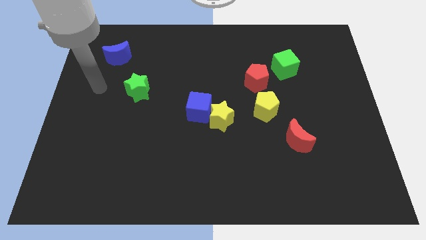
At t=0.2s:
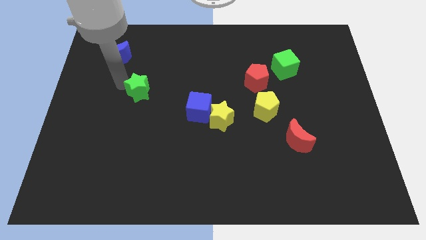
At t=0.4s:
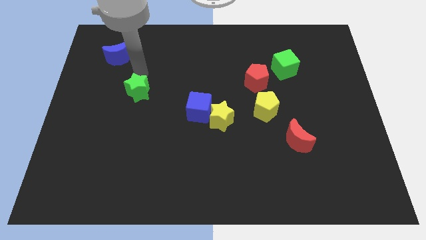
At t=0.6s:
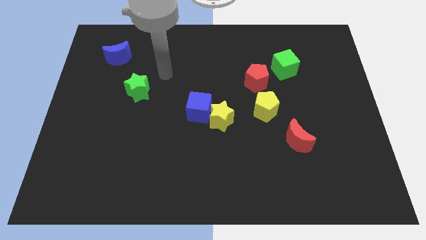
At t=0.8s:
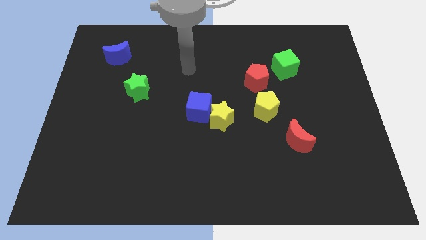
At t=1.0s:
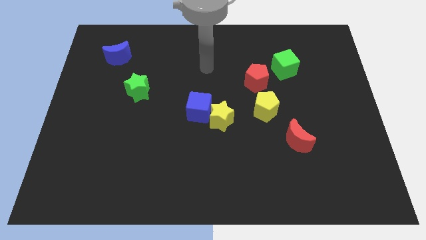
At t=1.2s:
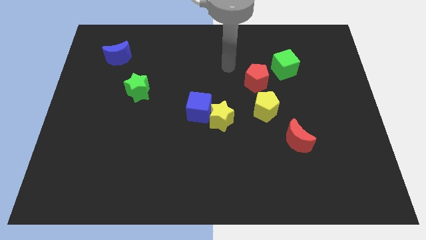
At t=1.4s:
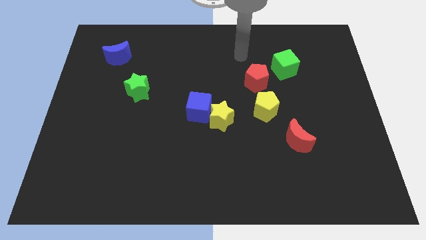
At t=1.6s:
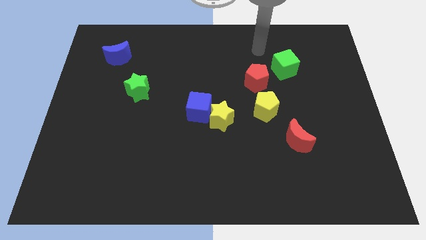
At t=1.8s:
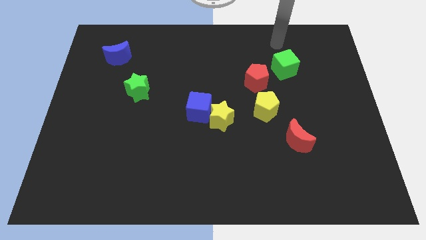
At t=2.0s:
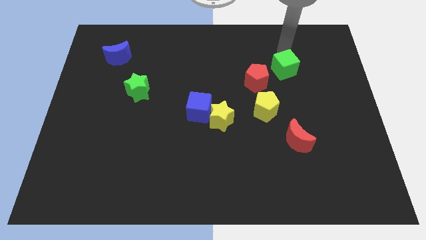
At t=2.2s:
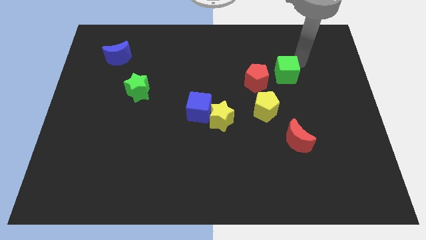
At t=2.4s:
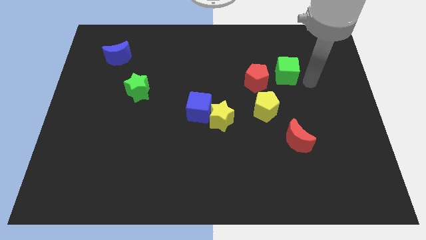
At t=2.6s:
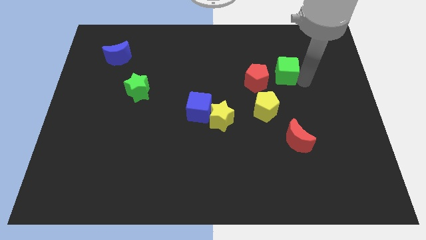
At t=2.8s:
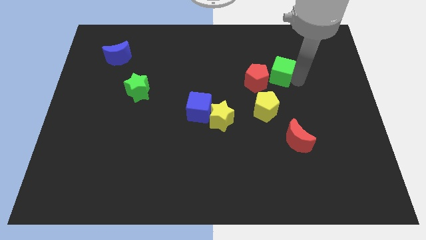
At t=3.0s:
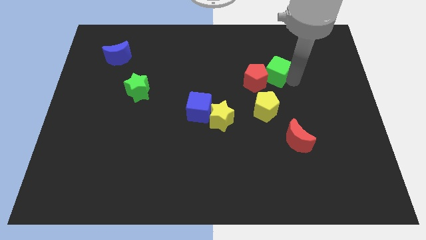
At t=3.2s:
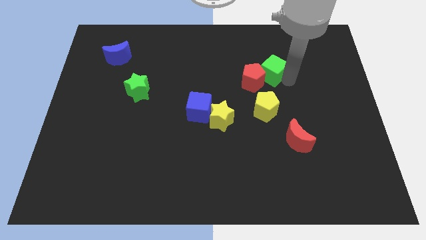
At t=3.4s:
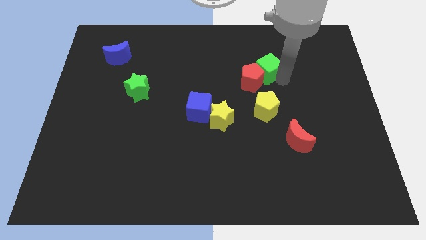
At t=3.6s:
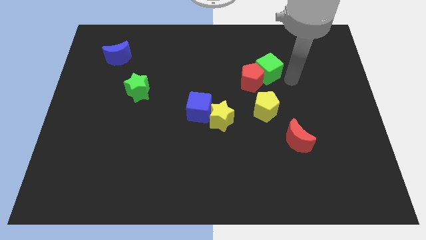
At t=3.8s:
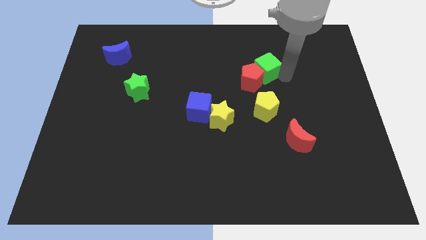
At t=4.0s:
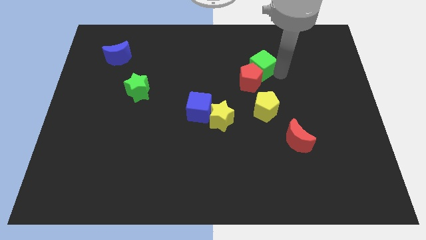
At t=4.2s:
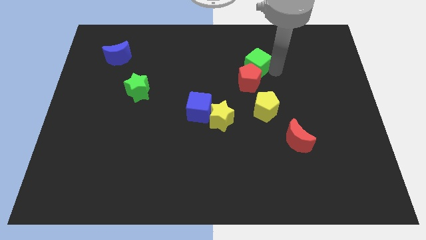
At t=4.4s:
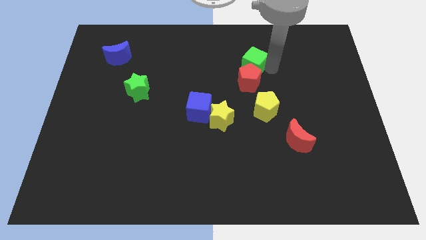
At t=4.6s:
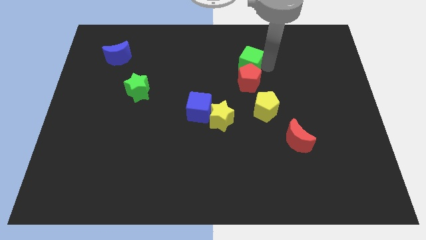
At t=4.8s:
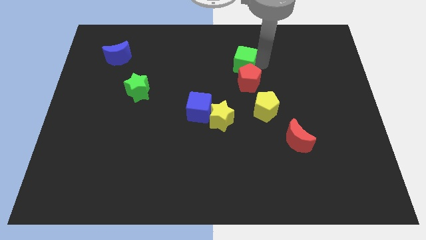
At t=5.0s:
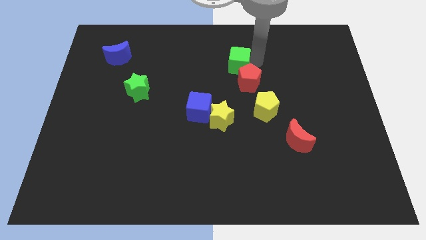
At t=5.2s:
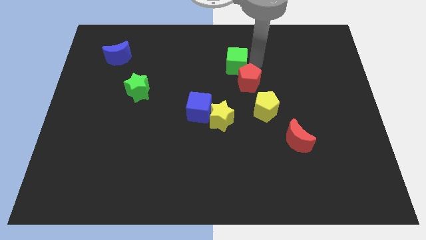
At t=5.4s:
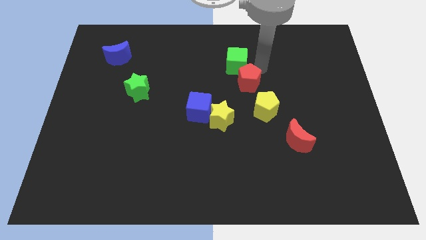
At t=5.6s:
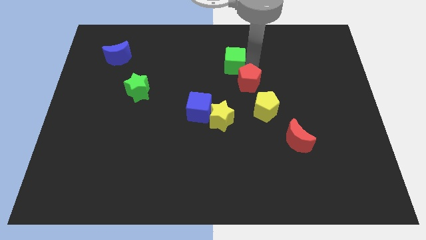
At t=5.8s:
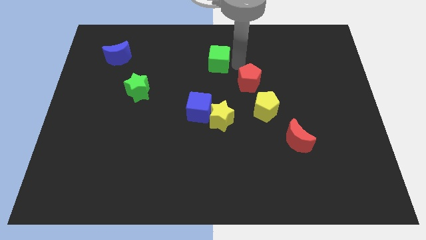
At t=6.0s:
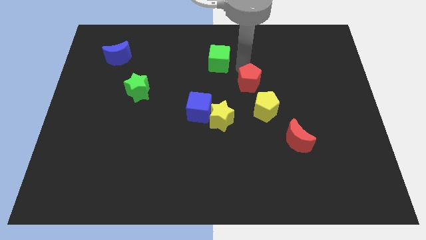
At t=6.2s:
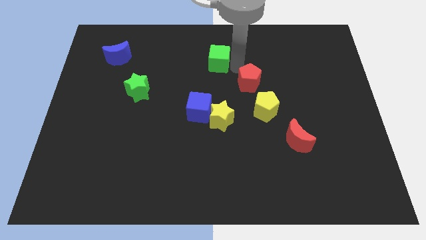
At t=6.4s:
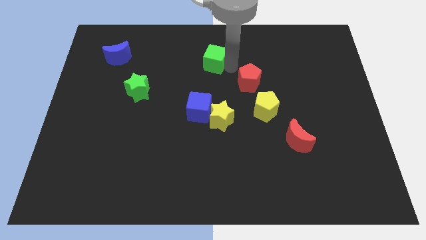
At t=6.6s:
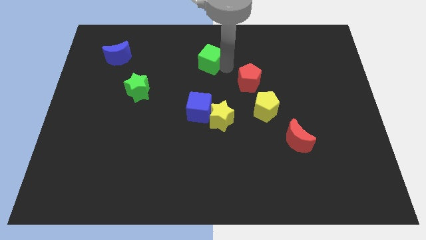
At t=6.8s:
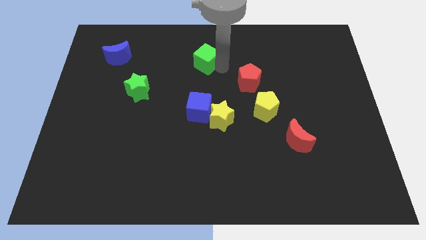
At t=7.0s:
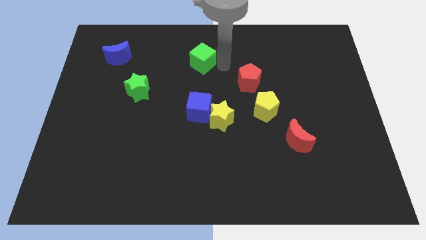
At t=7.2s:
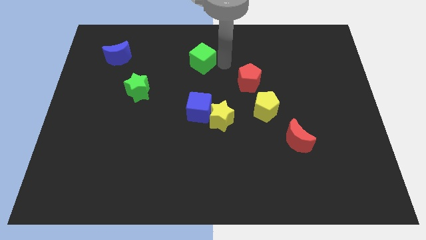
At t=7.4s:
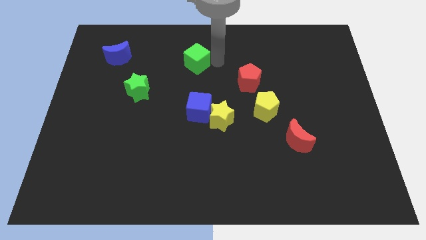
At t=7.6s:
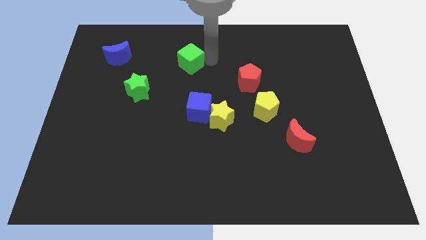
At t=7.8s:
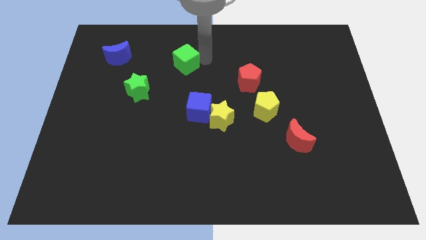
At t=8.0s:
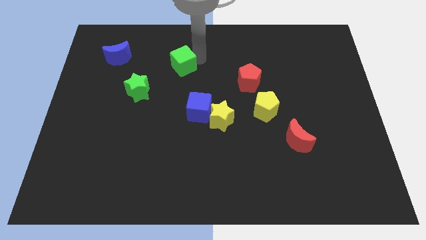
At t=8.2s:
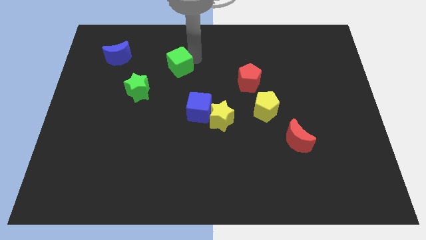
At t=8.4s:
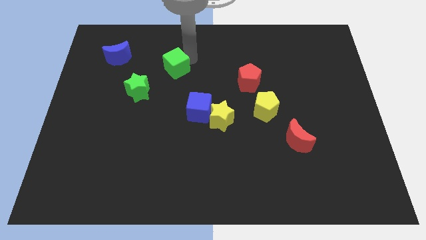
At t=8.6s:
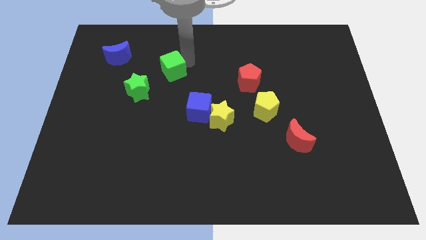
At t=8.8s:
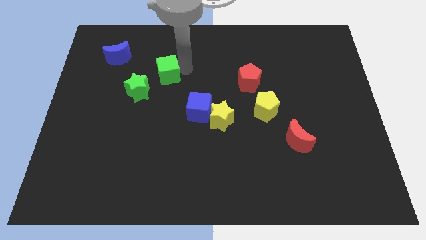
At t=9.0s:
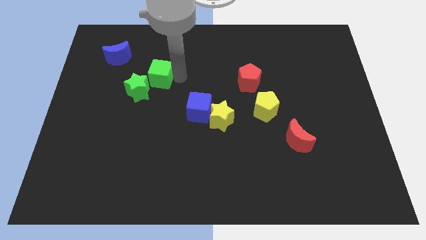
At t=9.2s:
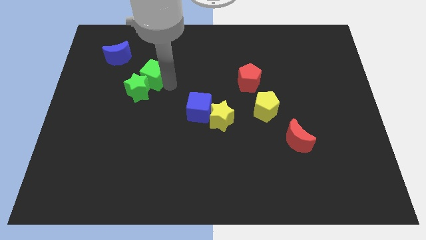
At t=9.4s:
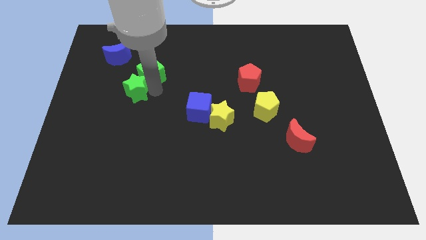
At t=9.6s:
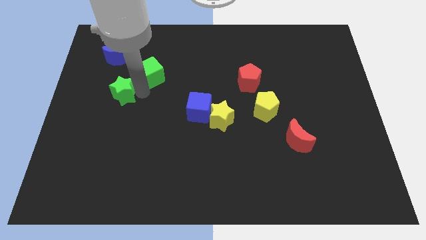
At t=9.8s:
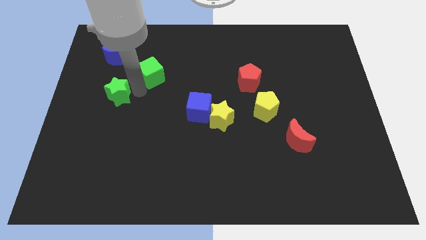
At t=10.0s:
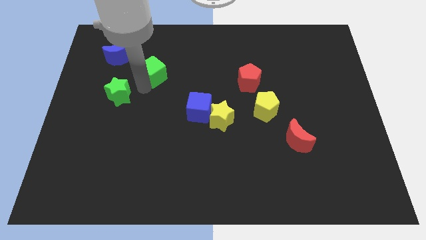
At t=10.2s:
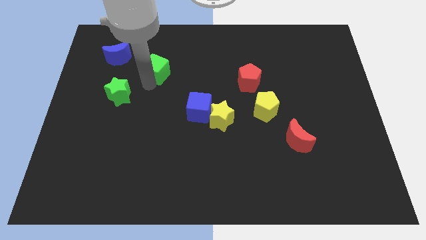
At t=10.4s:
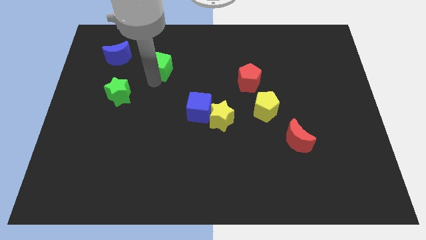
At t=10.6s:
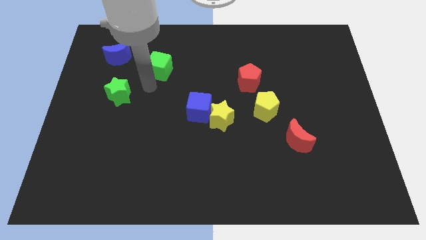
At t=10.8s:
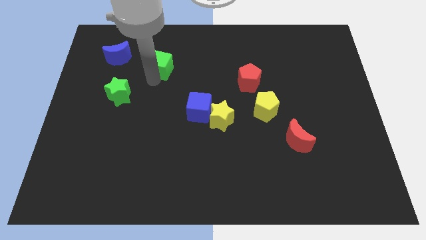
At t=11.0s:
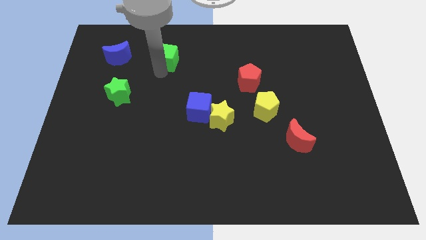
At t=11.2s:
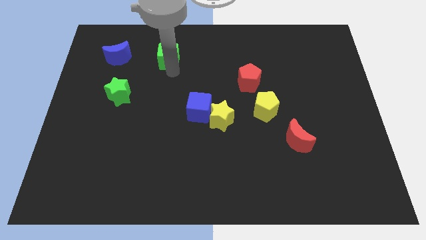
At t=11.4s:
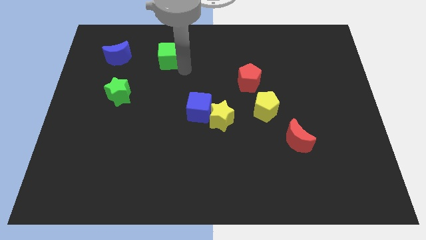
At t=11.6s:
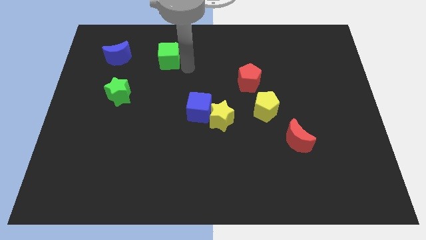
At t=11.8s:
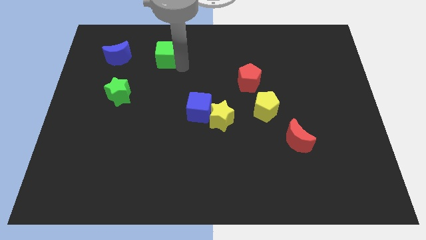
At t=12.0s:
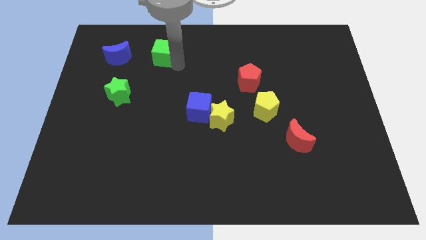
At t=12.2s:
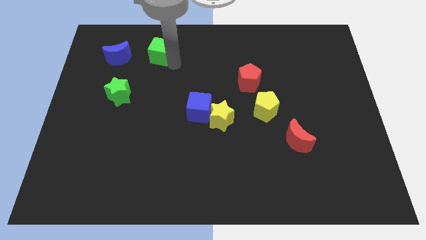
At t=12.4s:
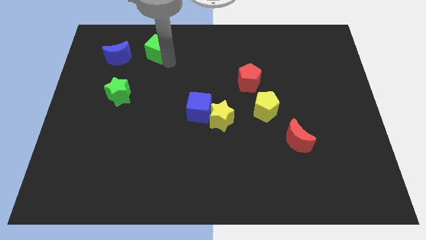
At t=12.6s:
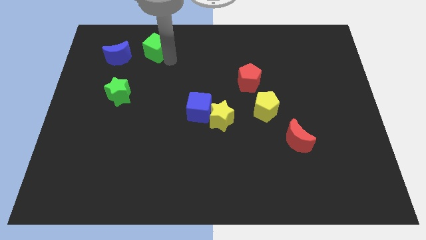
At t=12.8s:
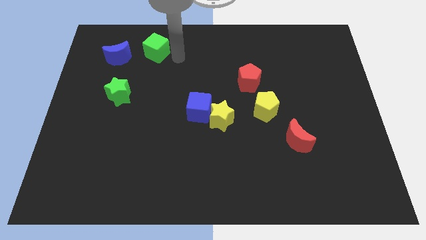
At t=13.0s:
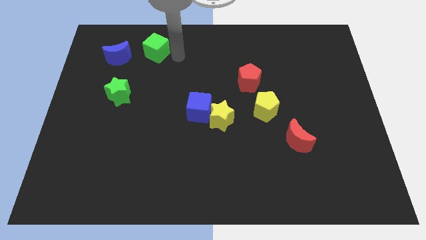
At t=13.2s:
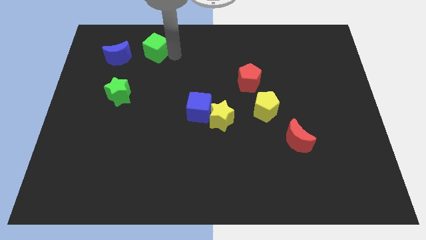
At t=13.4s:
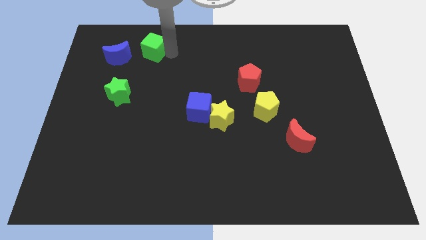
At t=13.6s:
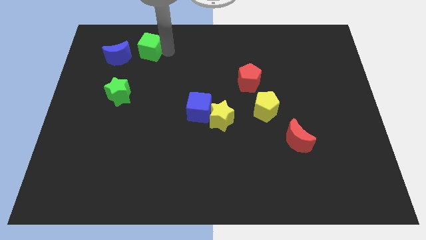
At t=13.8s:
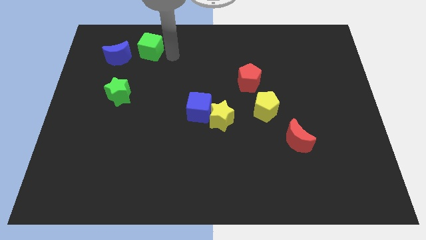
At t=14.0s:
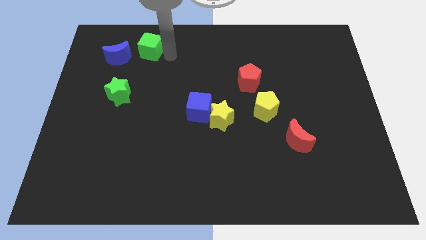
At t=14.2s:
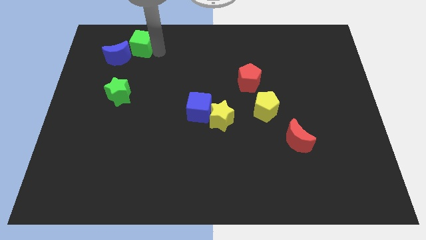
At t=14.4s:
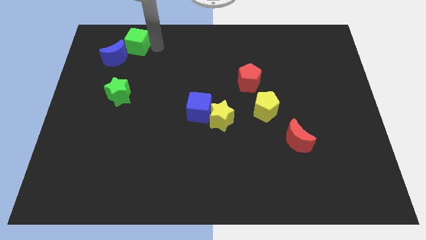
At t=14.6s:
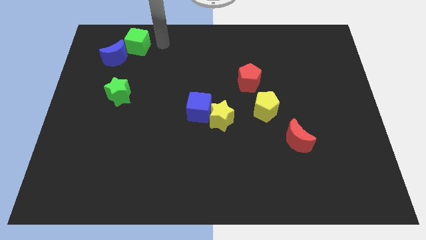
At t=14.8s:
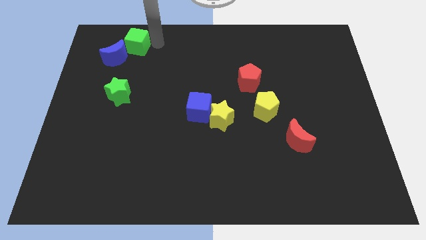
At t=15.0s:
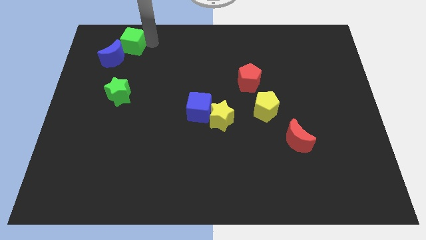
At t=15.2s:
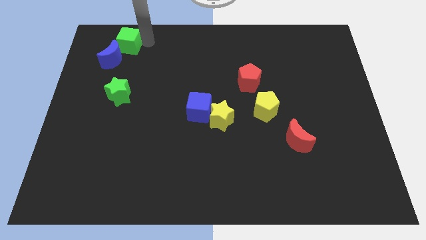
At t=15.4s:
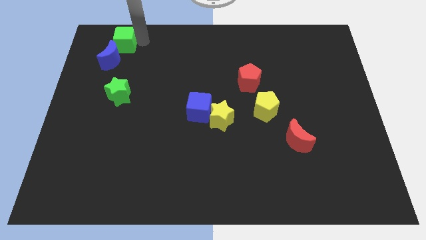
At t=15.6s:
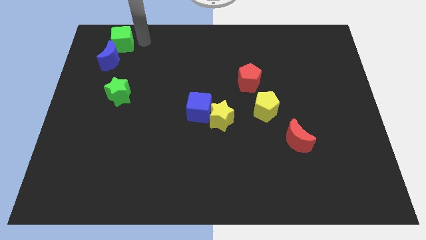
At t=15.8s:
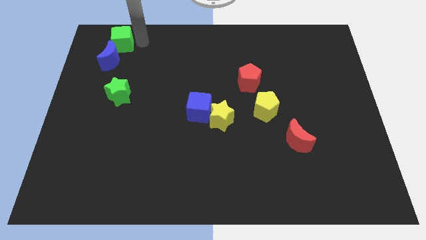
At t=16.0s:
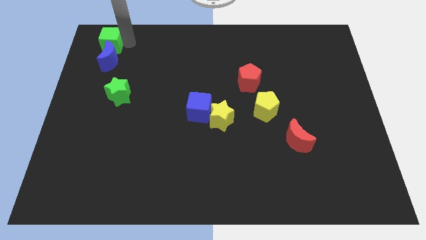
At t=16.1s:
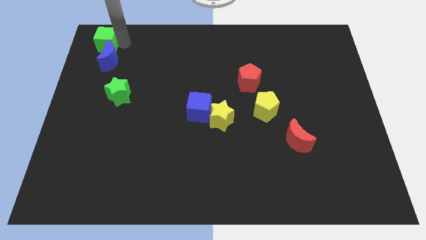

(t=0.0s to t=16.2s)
move the green cube to the top left corner
